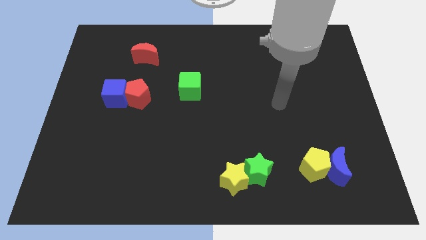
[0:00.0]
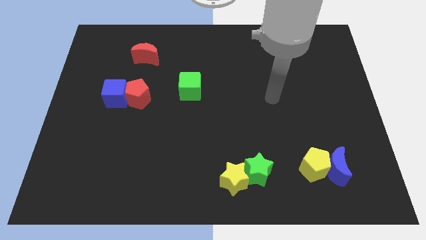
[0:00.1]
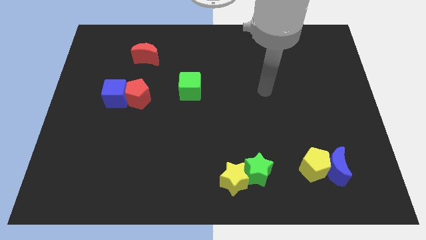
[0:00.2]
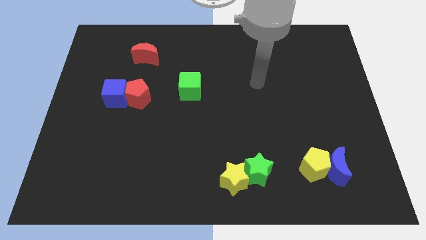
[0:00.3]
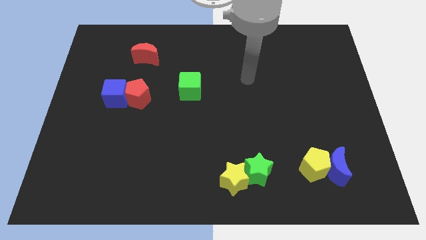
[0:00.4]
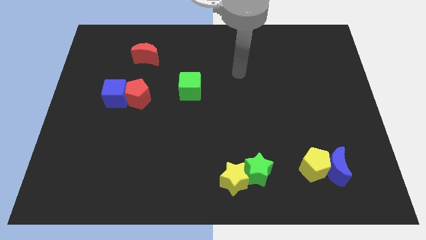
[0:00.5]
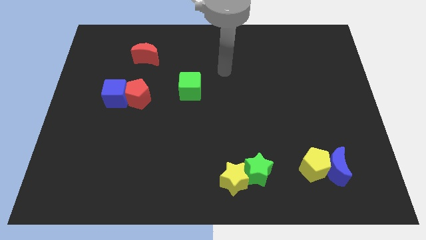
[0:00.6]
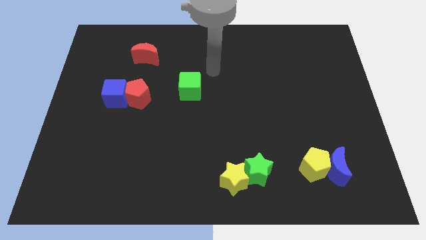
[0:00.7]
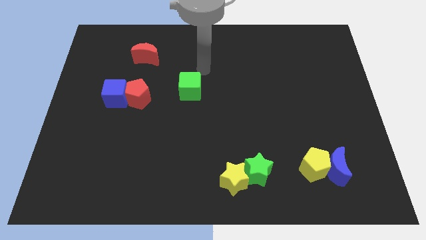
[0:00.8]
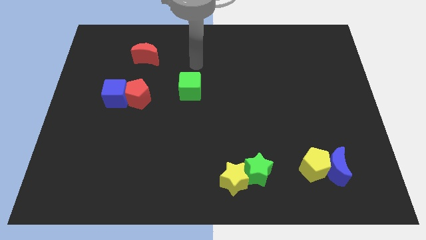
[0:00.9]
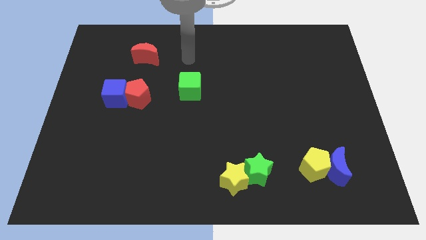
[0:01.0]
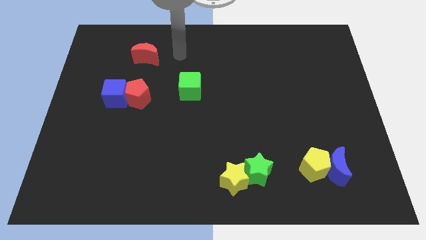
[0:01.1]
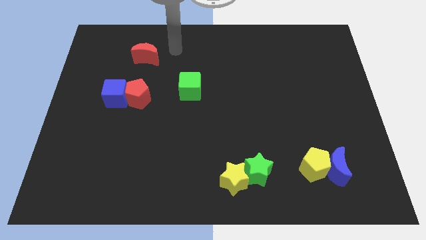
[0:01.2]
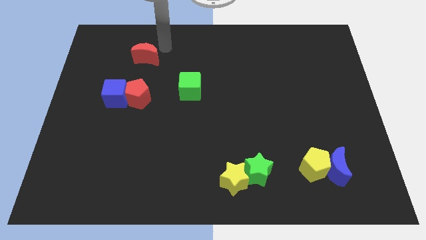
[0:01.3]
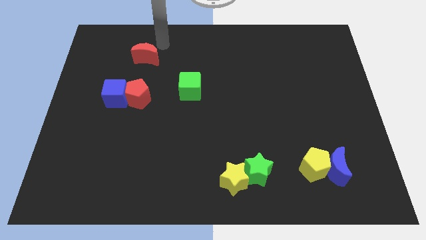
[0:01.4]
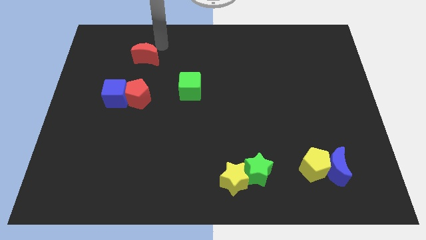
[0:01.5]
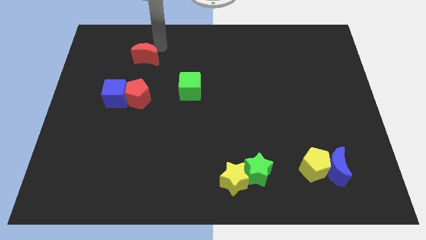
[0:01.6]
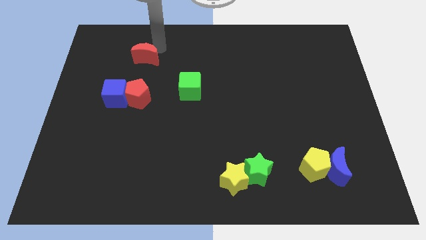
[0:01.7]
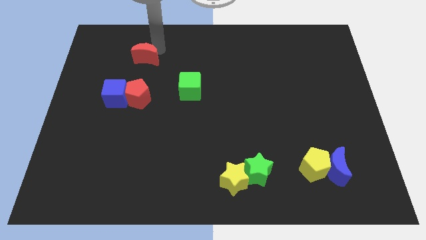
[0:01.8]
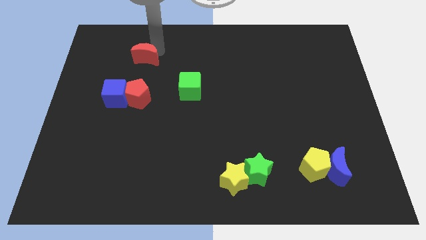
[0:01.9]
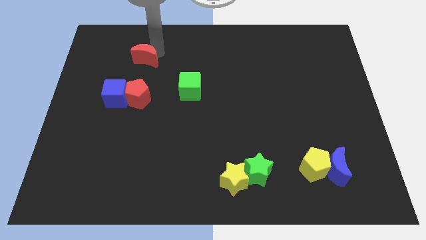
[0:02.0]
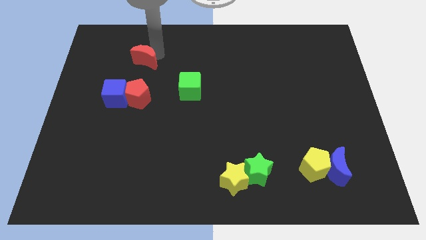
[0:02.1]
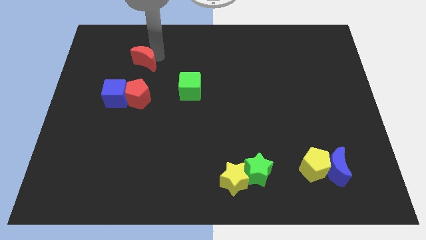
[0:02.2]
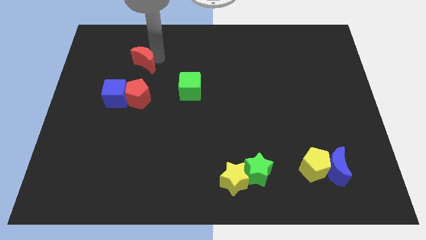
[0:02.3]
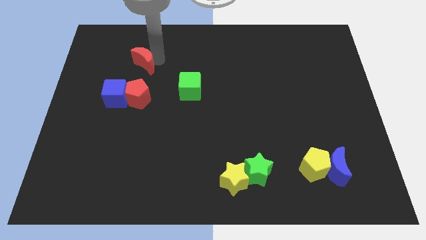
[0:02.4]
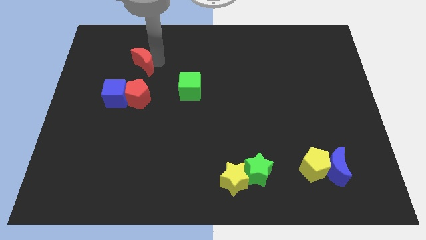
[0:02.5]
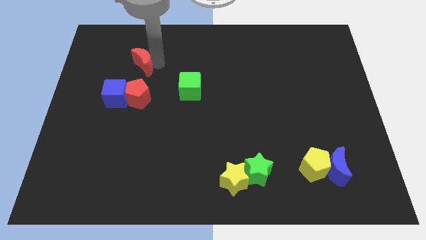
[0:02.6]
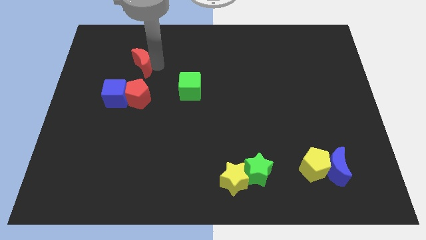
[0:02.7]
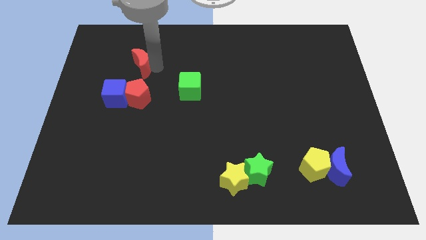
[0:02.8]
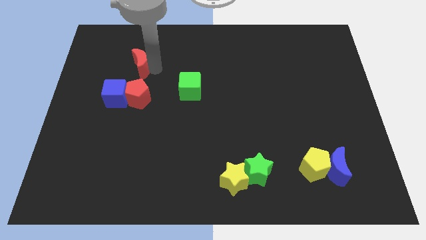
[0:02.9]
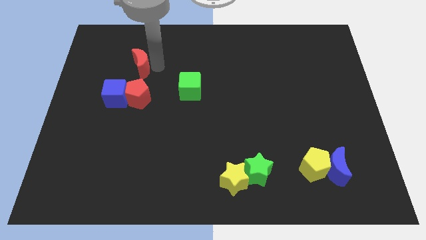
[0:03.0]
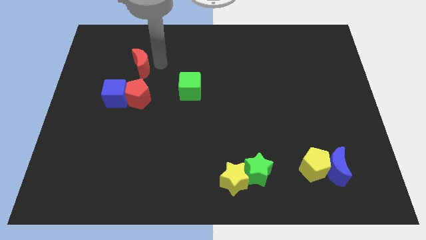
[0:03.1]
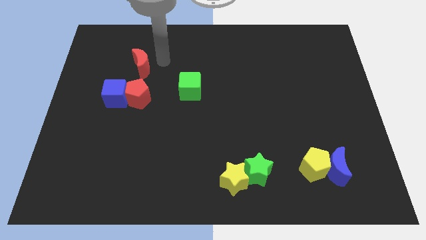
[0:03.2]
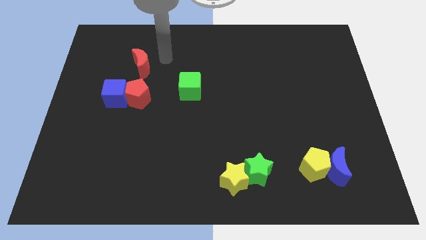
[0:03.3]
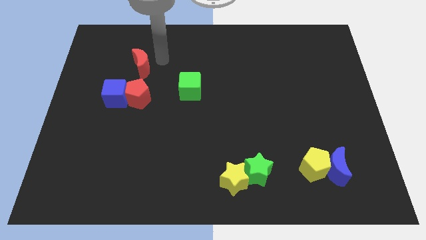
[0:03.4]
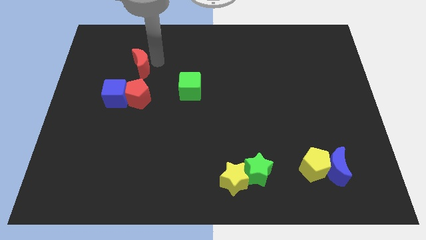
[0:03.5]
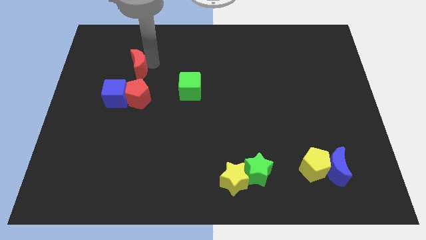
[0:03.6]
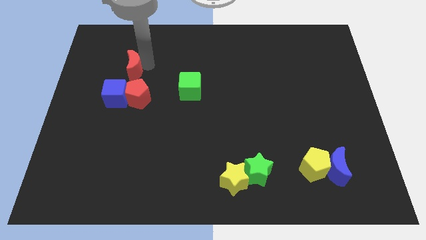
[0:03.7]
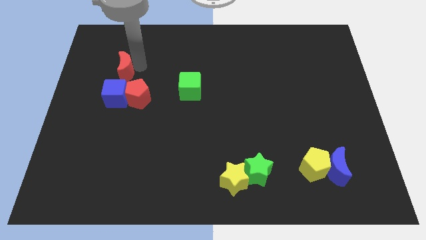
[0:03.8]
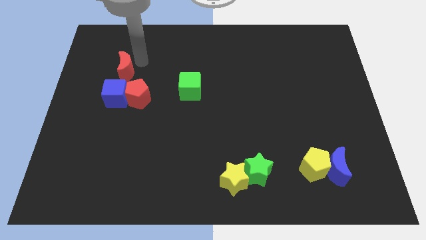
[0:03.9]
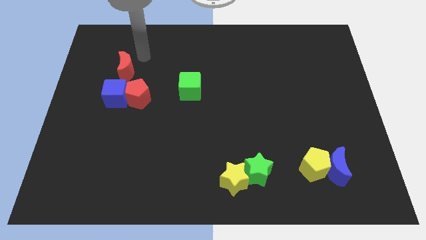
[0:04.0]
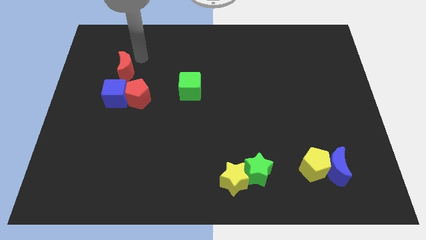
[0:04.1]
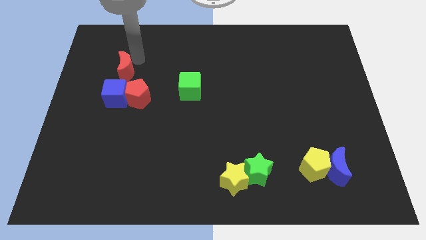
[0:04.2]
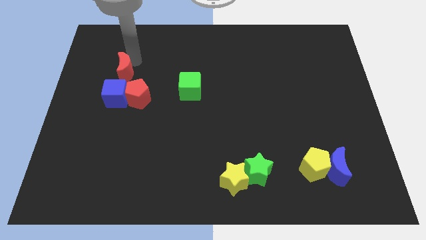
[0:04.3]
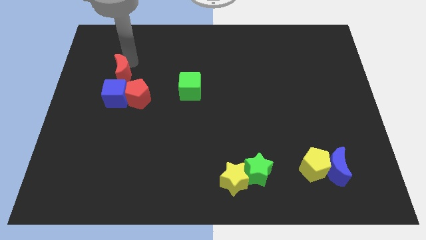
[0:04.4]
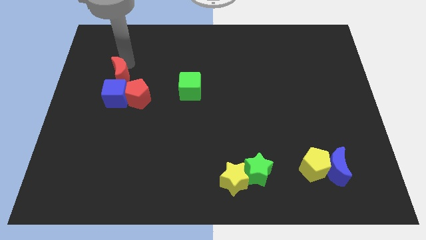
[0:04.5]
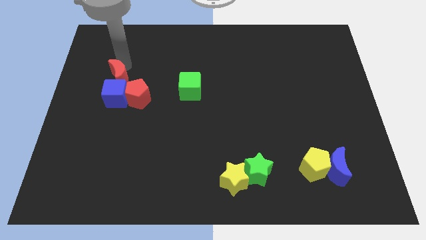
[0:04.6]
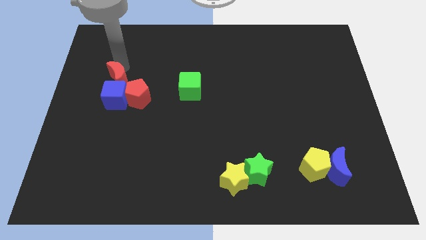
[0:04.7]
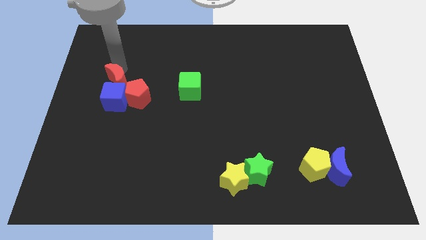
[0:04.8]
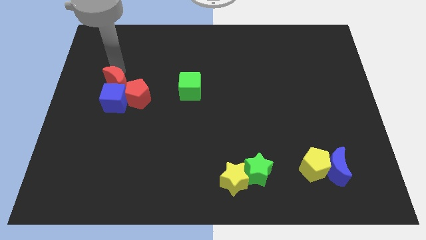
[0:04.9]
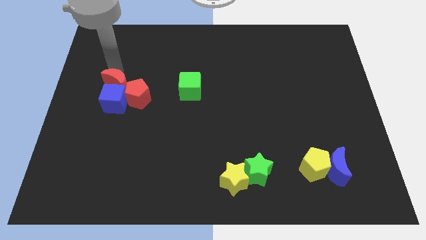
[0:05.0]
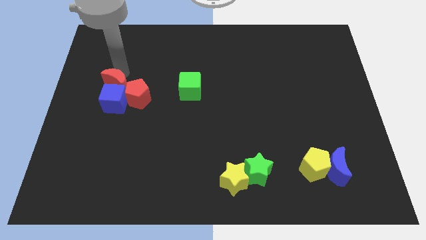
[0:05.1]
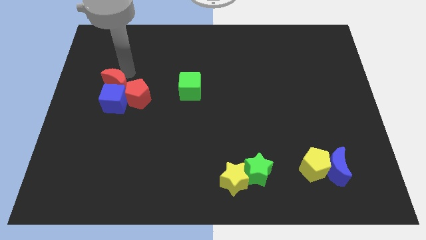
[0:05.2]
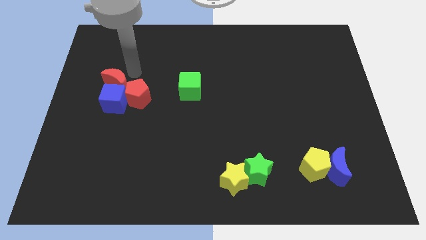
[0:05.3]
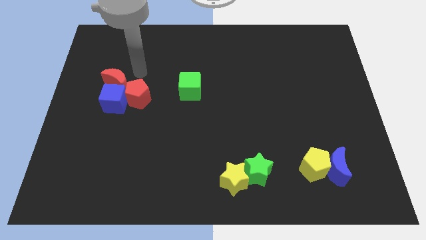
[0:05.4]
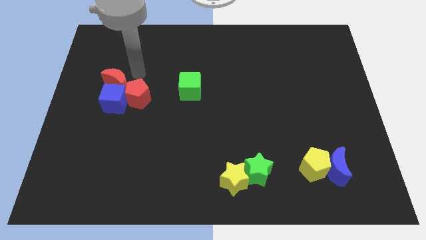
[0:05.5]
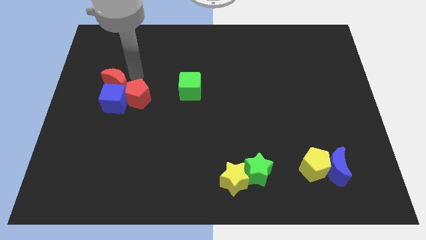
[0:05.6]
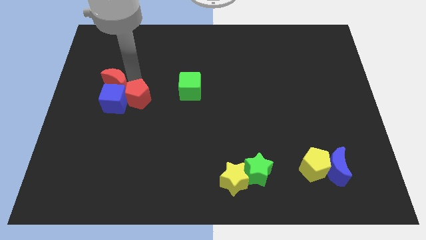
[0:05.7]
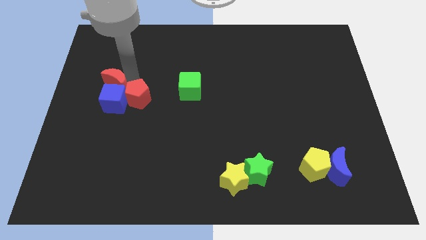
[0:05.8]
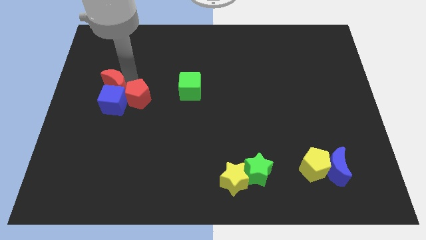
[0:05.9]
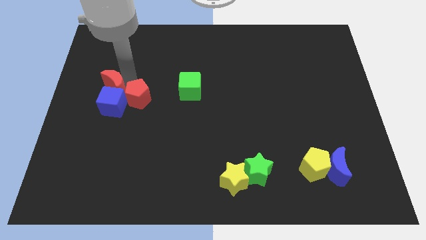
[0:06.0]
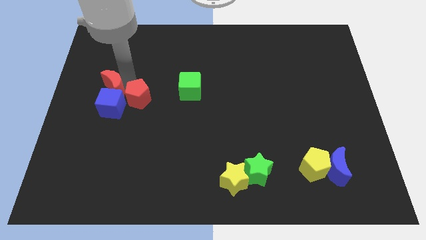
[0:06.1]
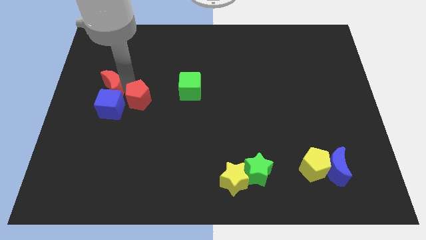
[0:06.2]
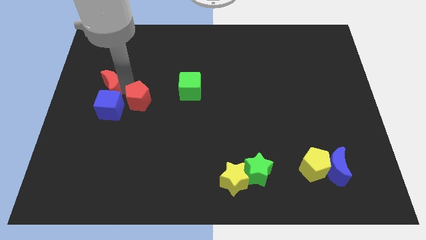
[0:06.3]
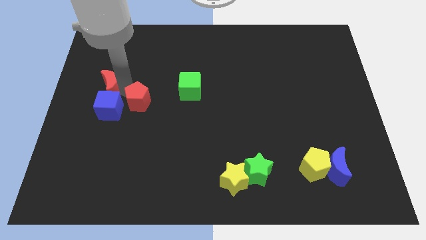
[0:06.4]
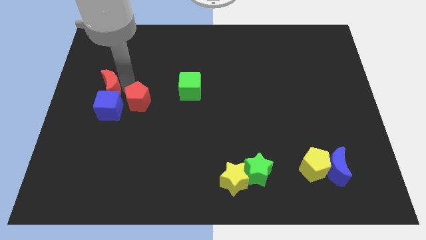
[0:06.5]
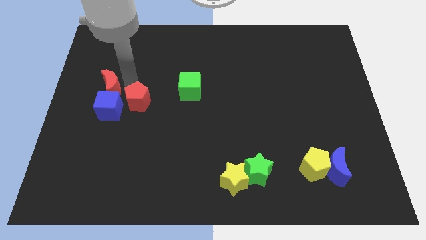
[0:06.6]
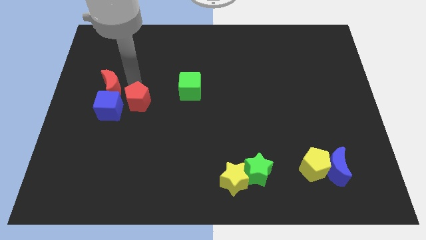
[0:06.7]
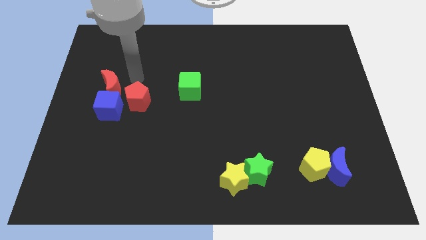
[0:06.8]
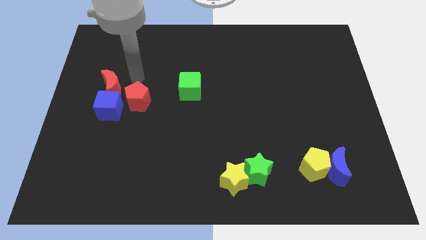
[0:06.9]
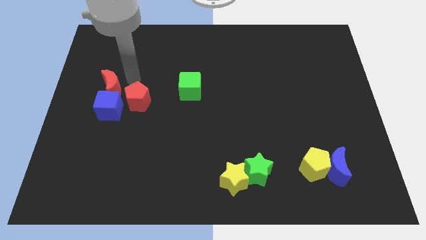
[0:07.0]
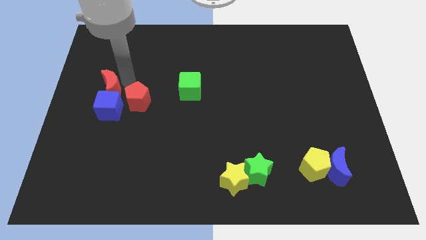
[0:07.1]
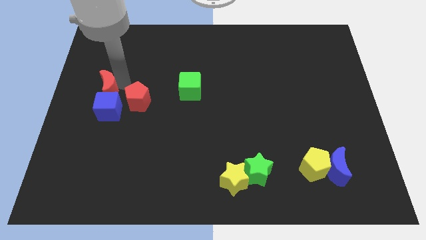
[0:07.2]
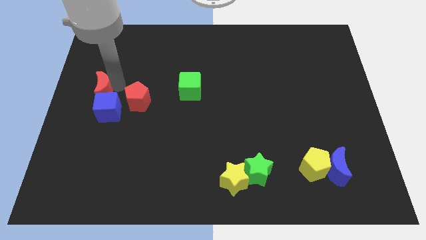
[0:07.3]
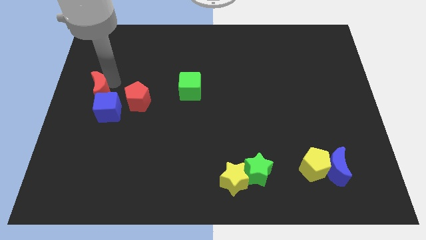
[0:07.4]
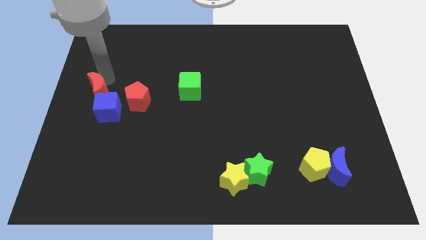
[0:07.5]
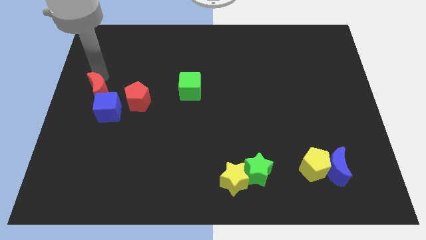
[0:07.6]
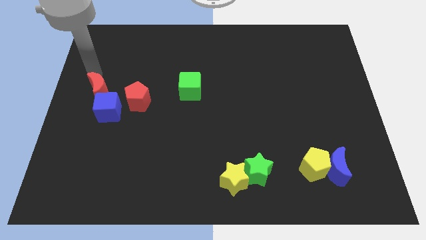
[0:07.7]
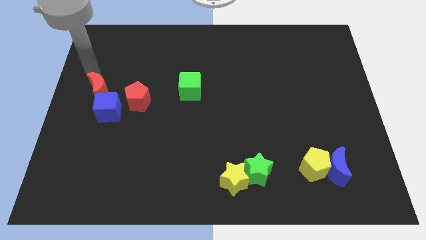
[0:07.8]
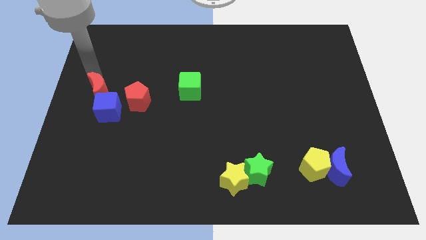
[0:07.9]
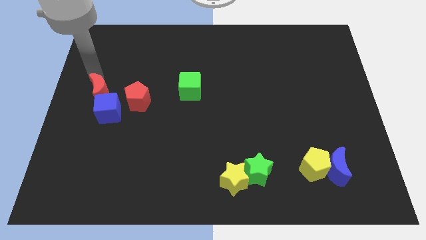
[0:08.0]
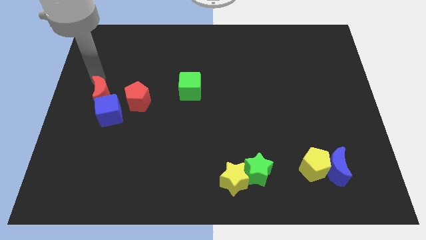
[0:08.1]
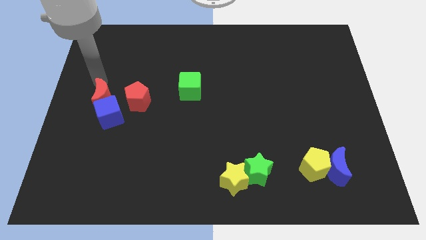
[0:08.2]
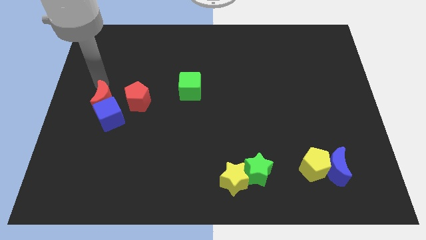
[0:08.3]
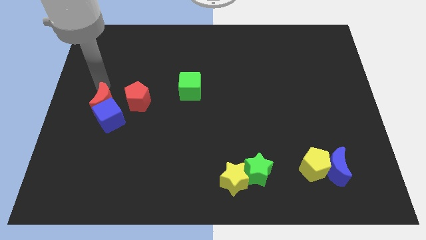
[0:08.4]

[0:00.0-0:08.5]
move the red moon to the bottom left side of the red pentagon
